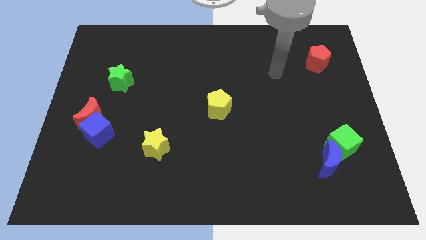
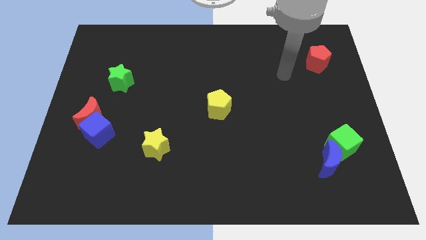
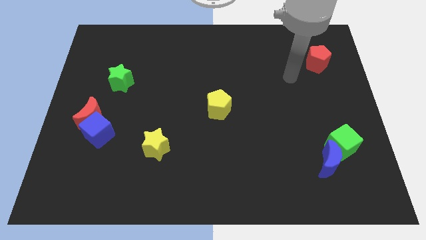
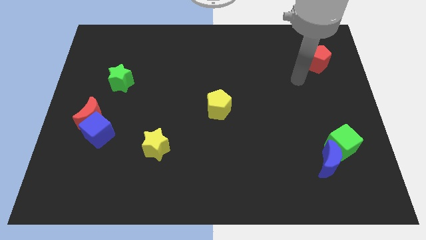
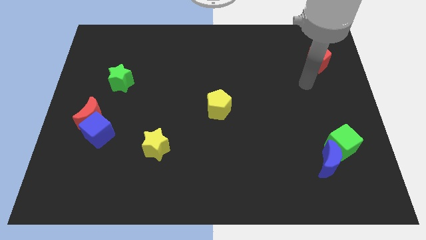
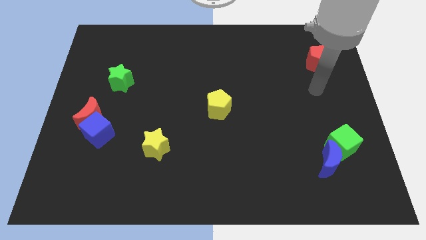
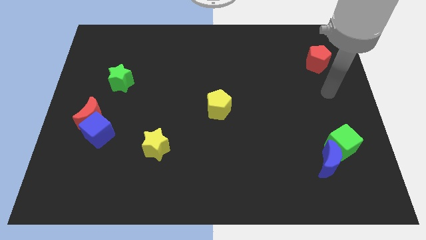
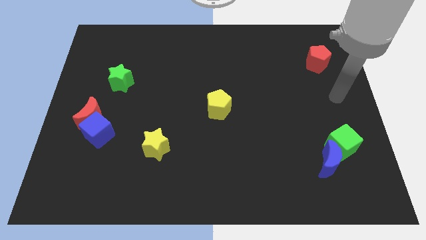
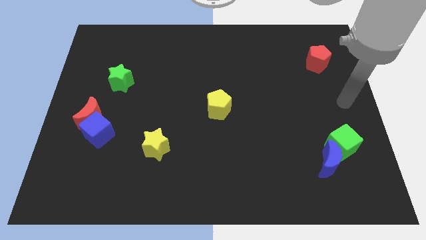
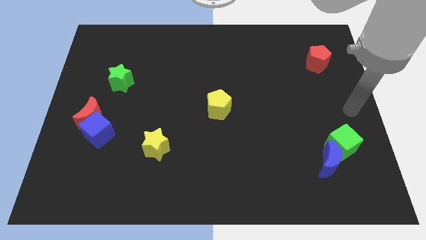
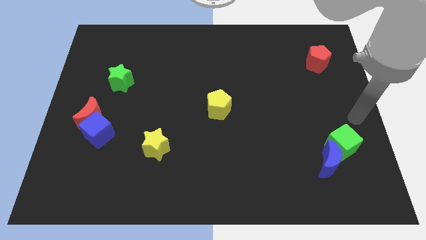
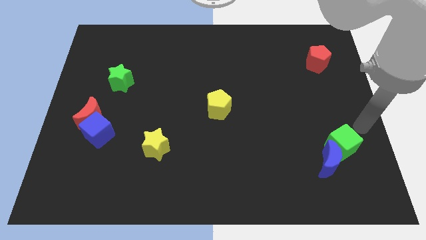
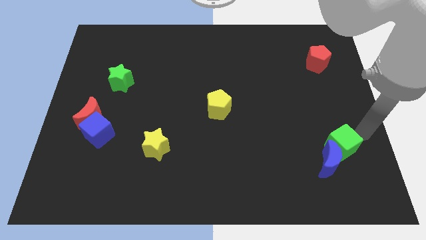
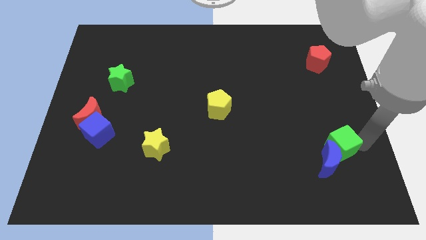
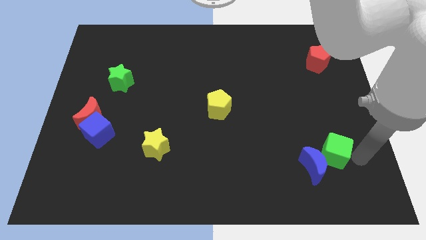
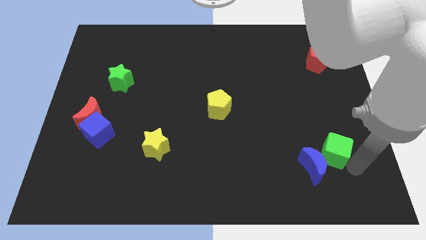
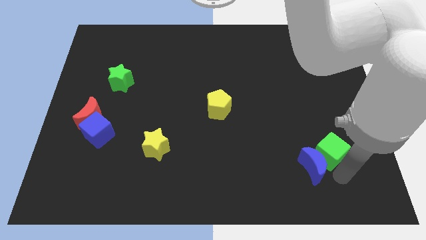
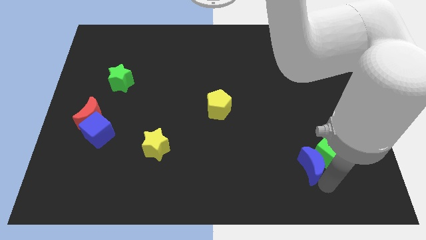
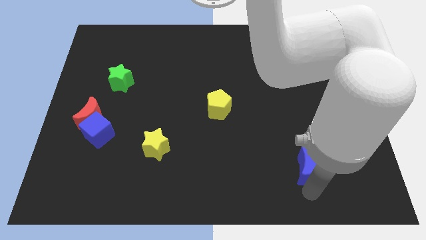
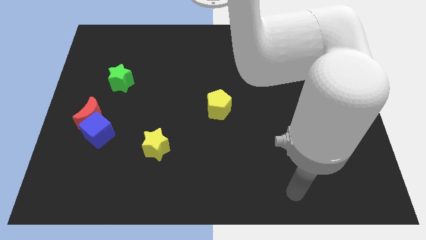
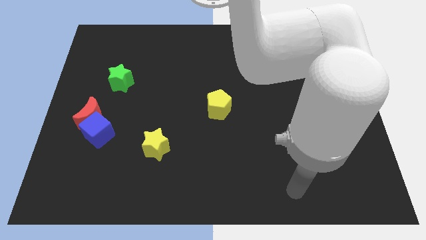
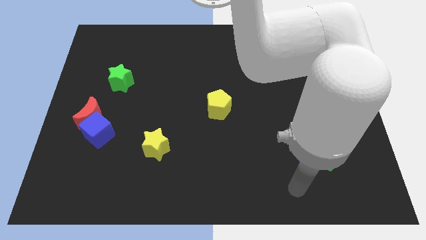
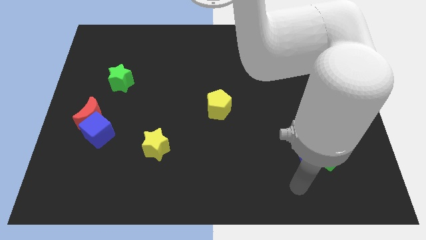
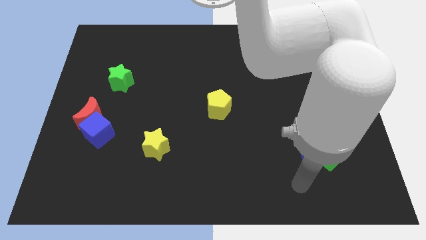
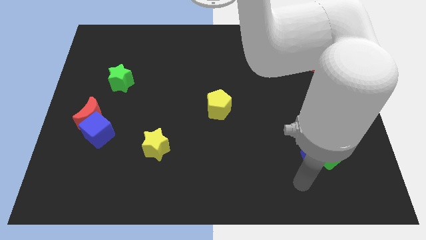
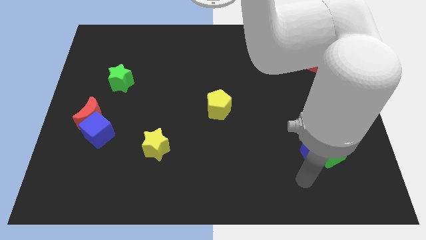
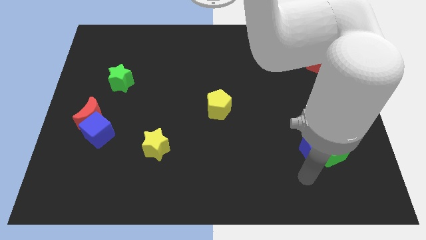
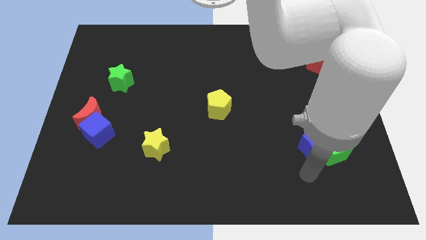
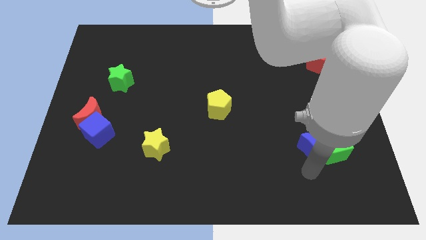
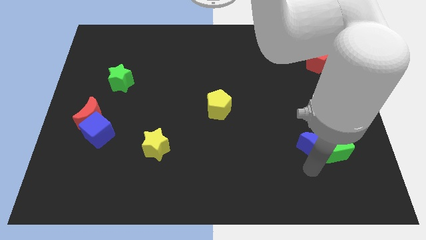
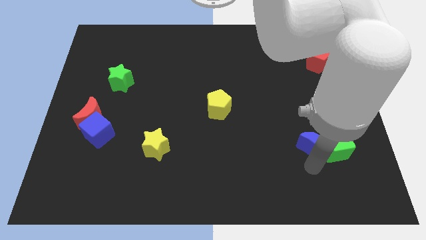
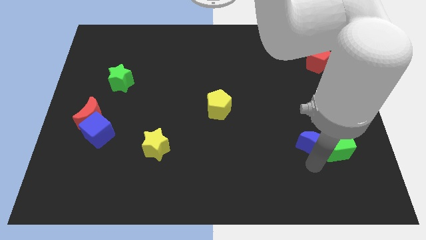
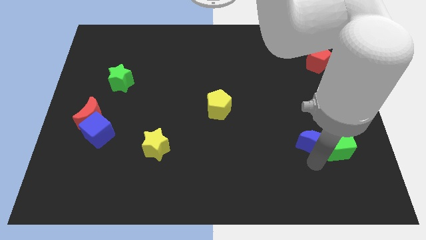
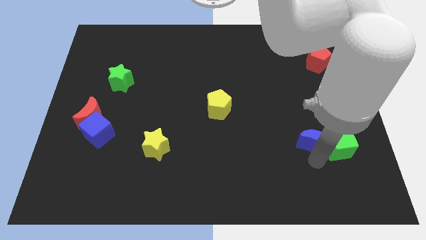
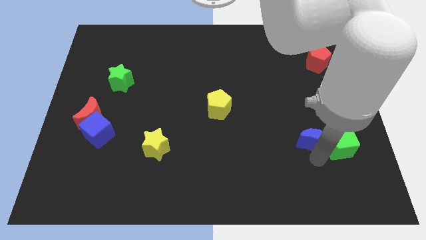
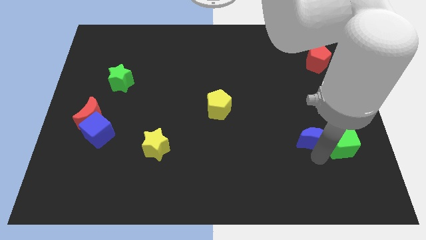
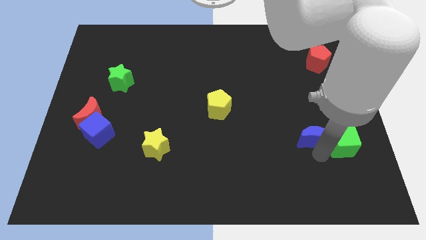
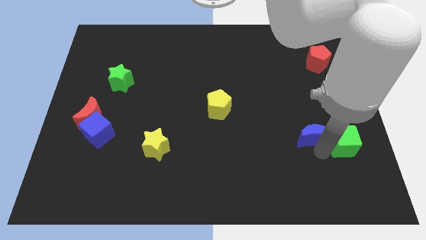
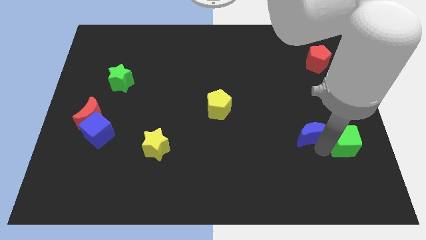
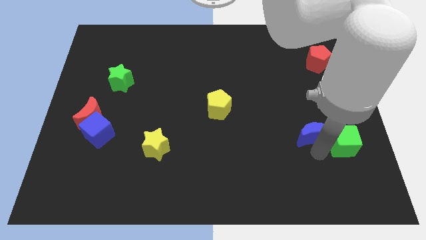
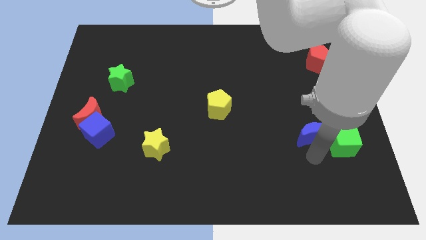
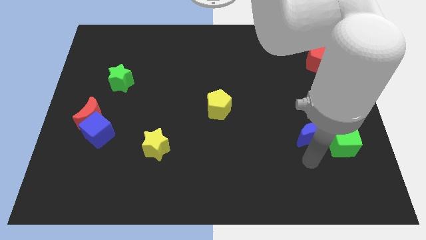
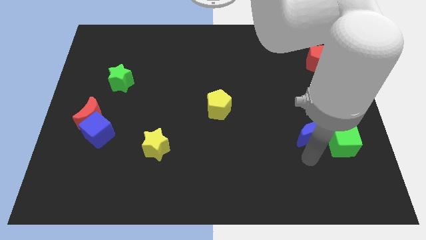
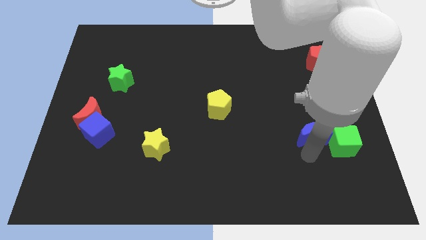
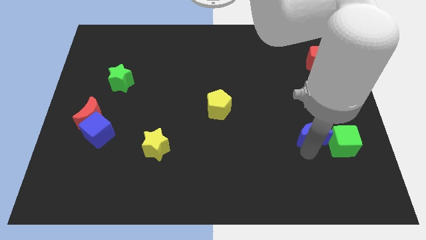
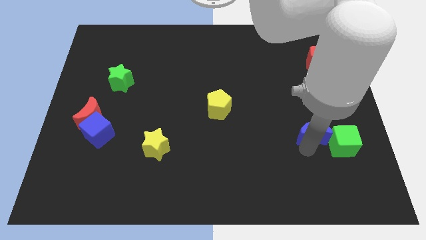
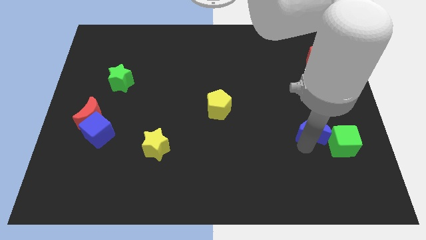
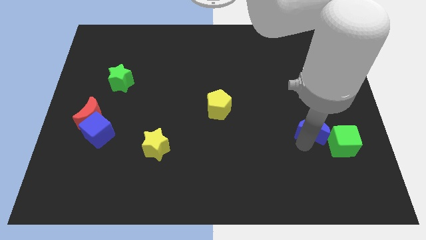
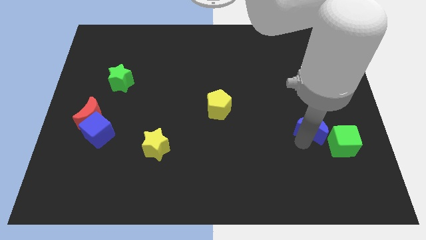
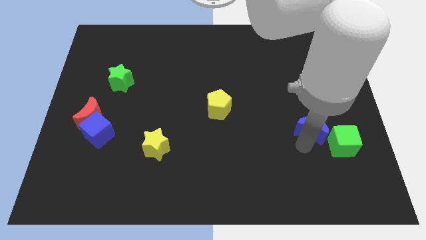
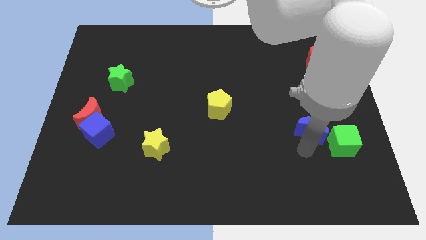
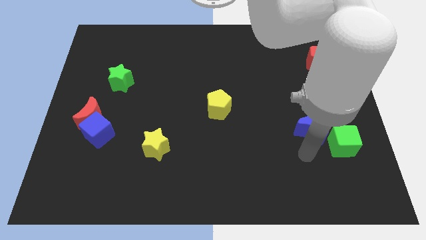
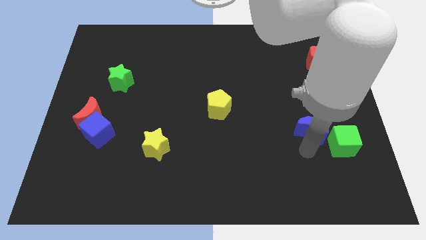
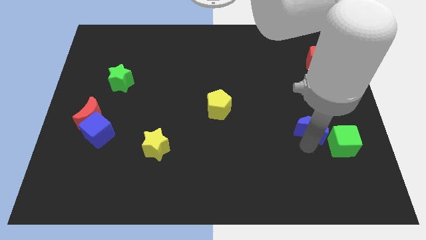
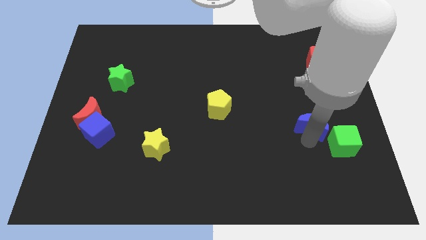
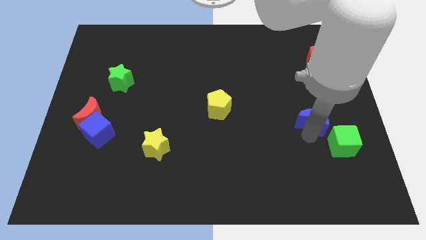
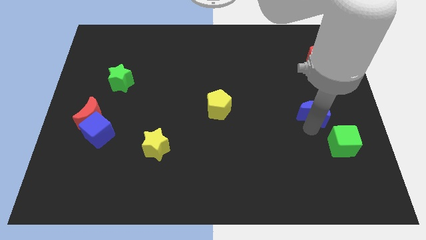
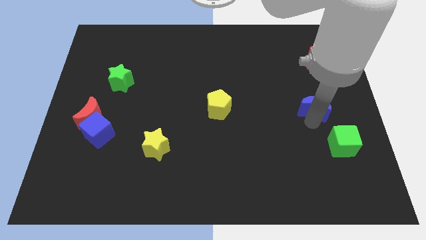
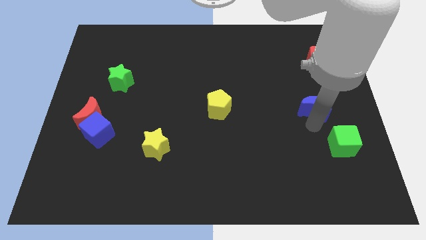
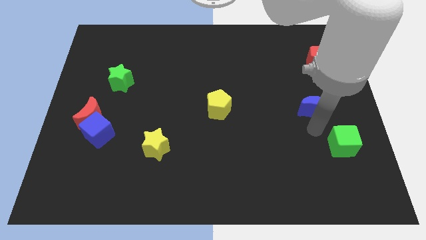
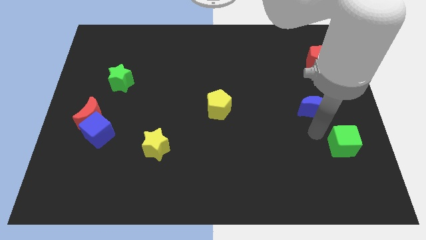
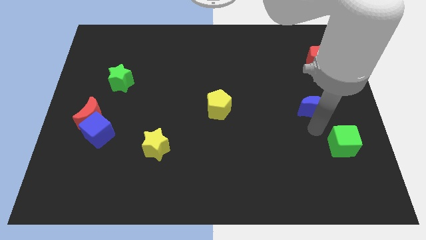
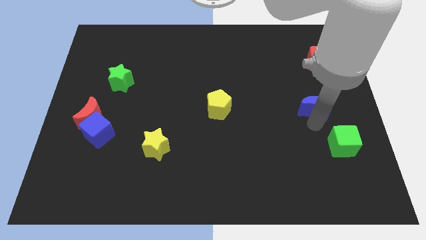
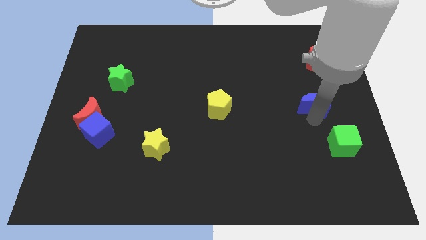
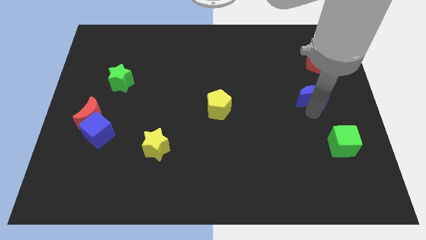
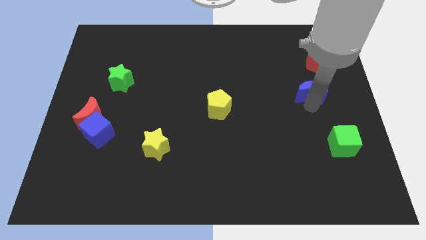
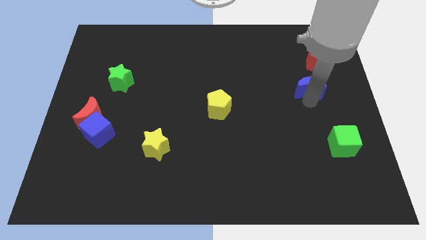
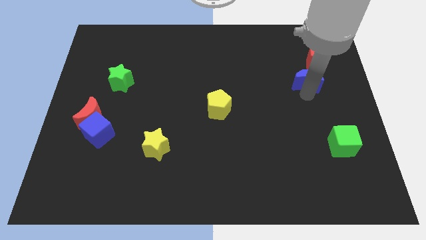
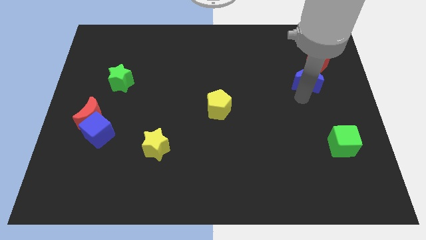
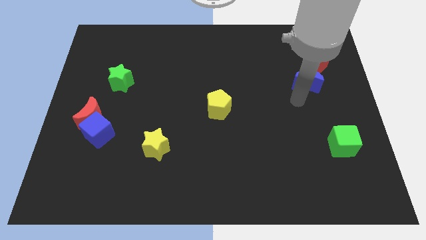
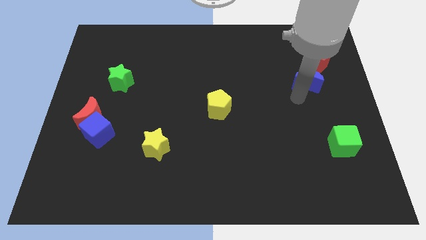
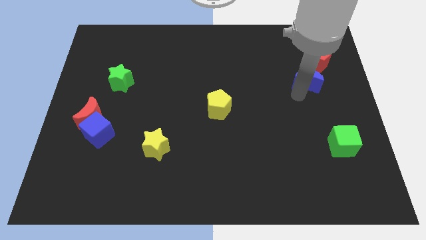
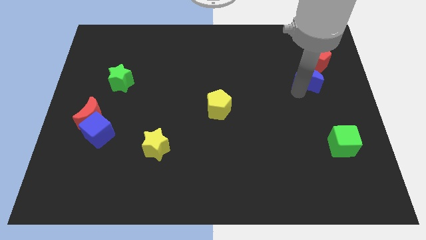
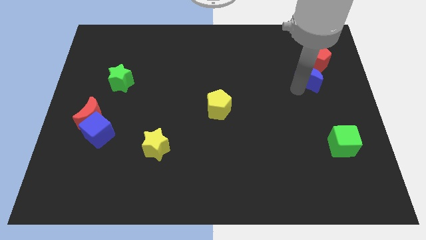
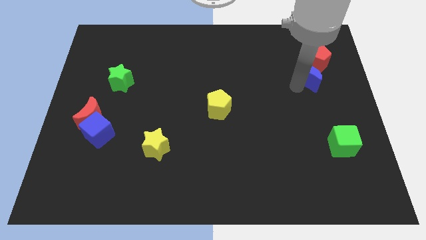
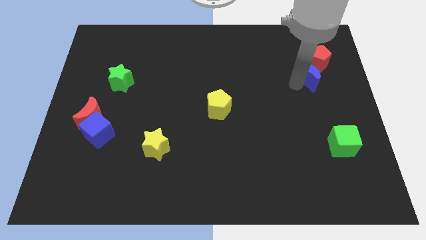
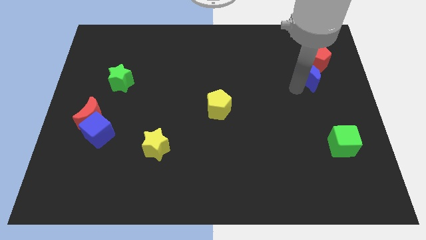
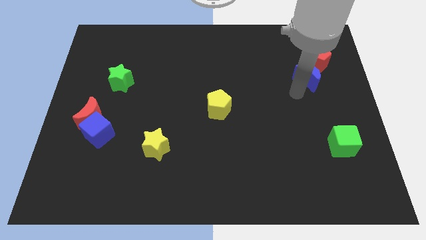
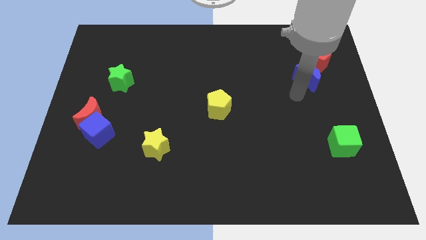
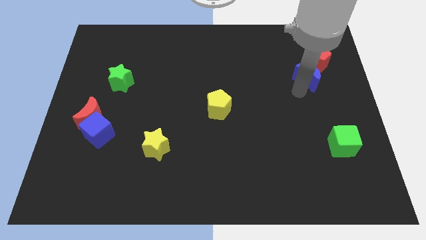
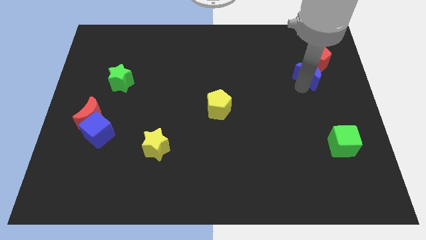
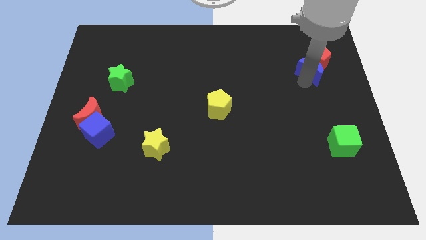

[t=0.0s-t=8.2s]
push the blue moon close to the red pentagon
